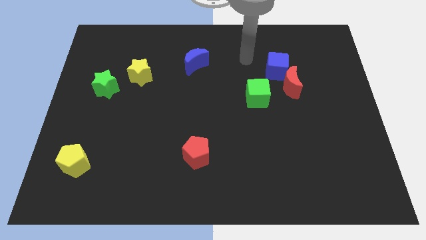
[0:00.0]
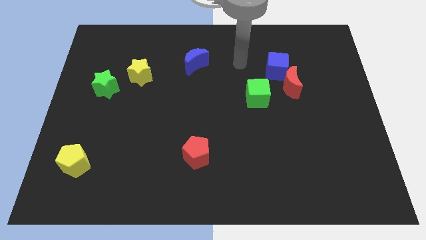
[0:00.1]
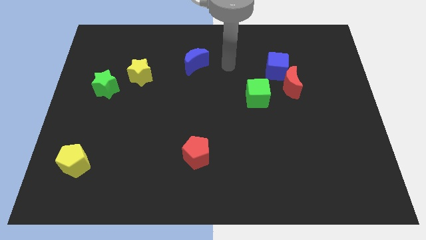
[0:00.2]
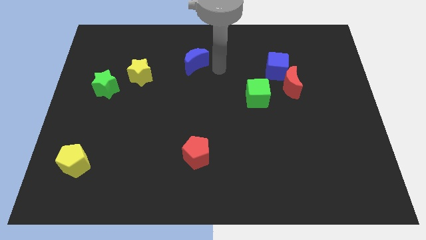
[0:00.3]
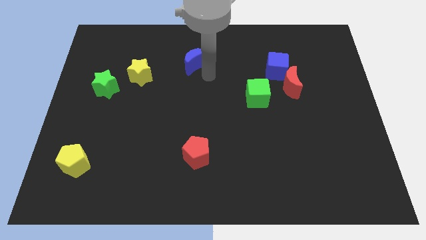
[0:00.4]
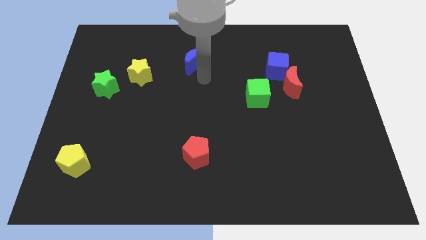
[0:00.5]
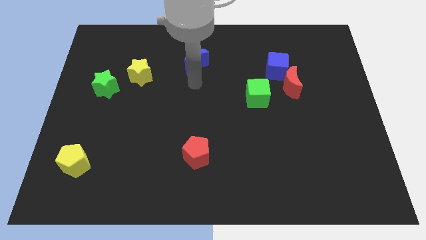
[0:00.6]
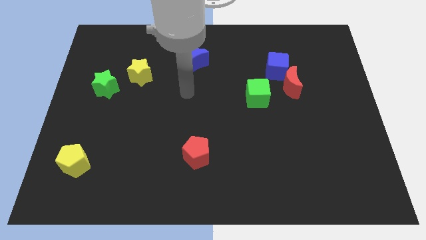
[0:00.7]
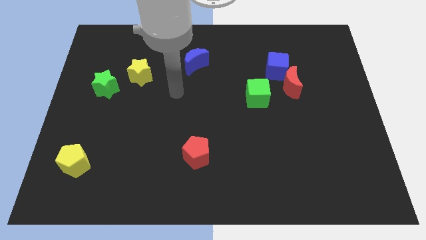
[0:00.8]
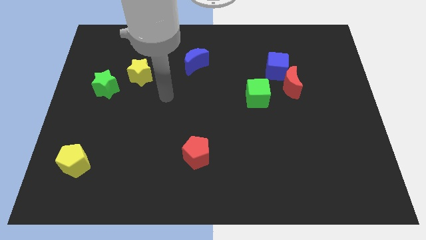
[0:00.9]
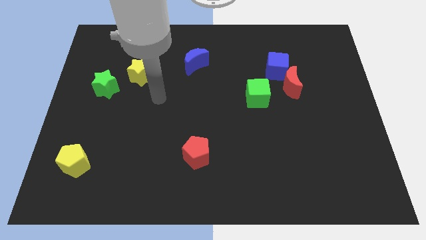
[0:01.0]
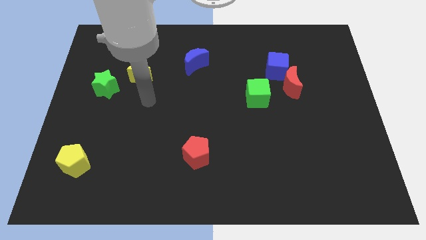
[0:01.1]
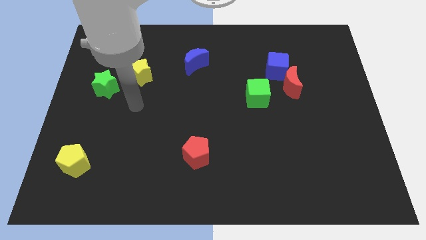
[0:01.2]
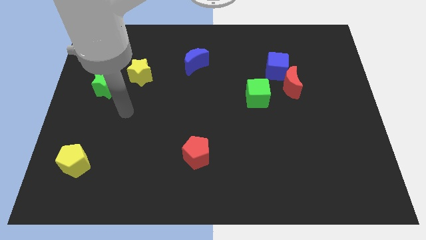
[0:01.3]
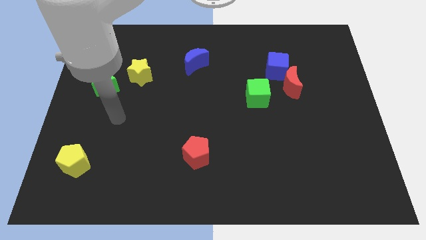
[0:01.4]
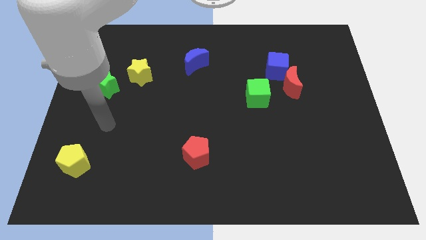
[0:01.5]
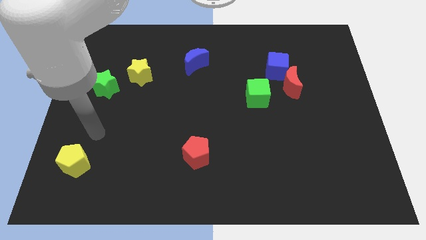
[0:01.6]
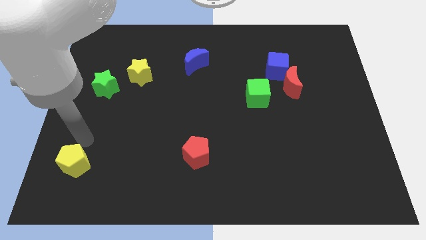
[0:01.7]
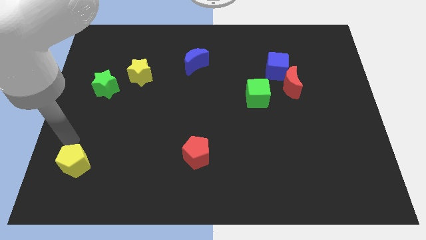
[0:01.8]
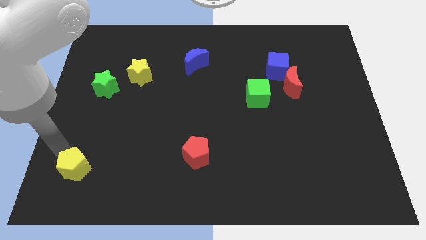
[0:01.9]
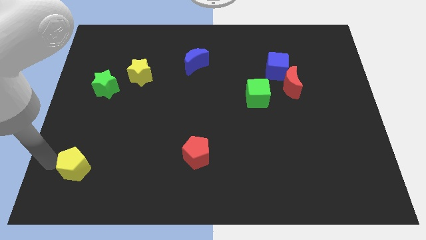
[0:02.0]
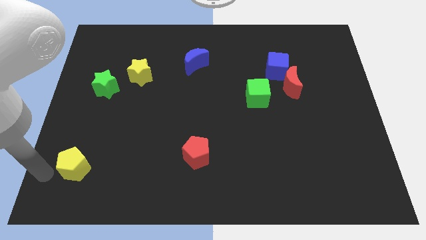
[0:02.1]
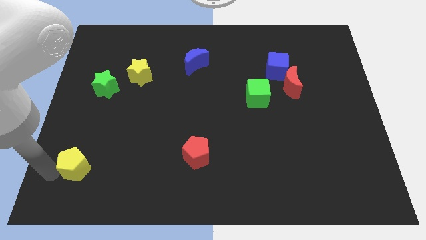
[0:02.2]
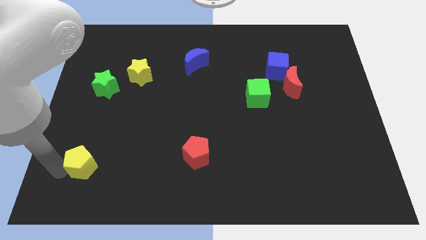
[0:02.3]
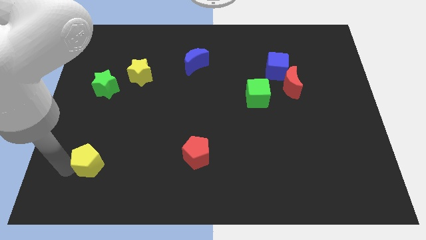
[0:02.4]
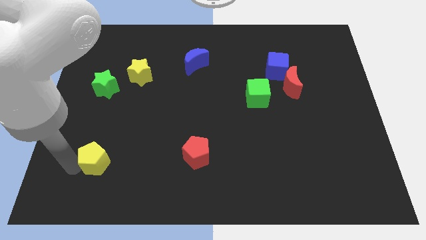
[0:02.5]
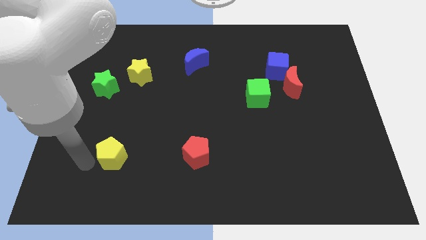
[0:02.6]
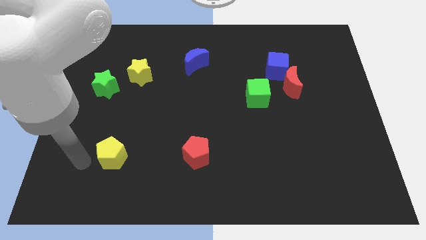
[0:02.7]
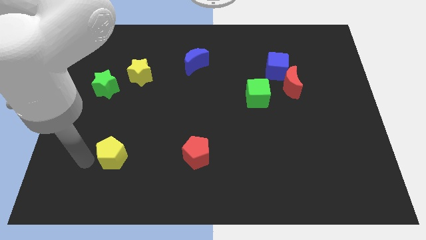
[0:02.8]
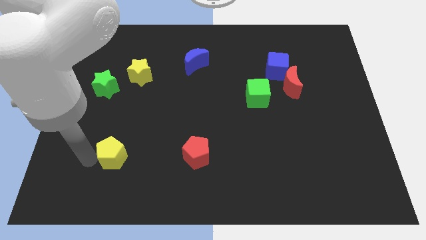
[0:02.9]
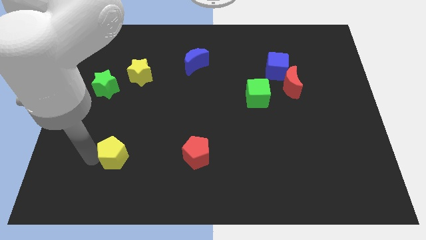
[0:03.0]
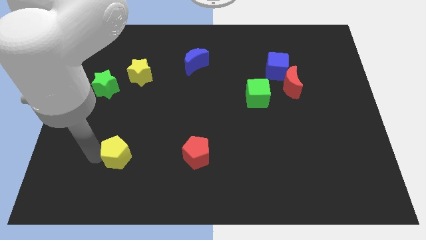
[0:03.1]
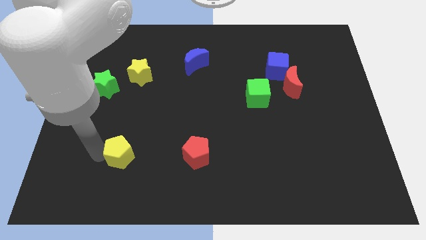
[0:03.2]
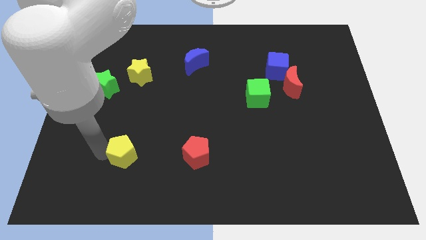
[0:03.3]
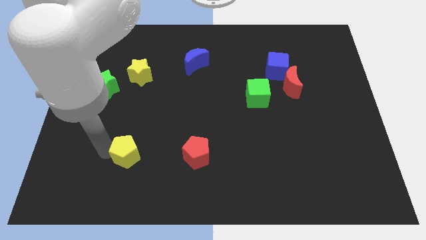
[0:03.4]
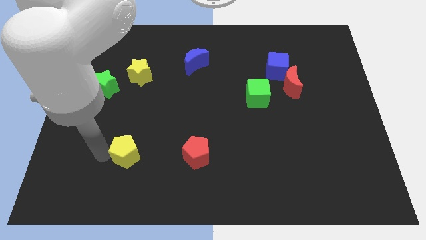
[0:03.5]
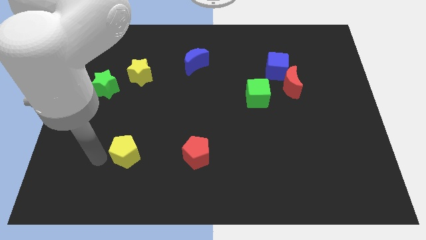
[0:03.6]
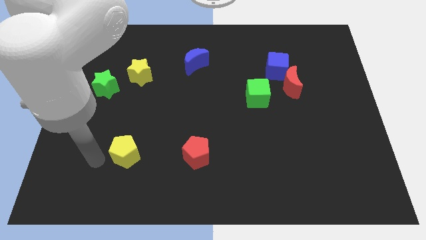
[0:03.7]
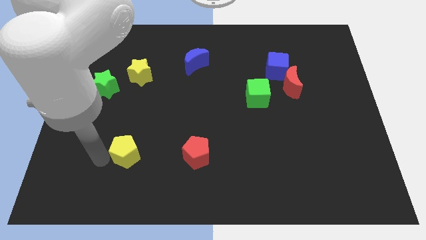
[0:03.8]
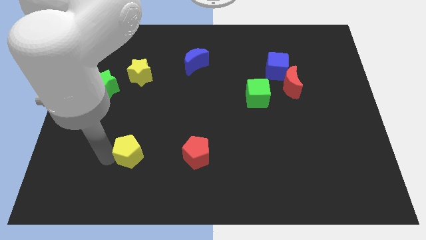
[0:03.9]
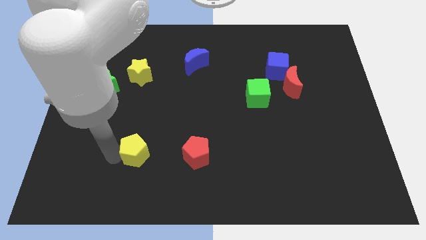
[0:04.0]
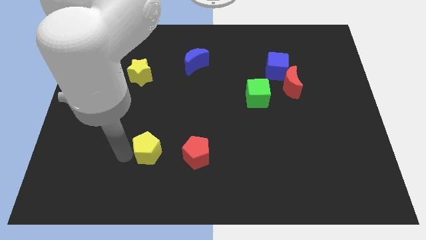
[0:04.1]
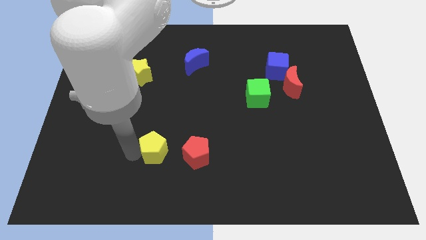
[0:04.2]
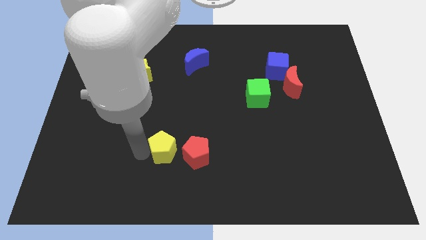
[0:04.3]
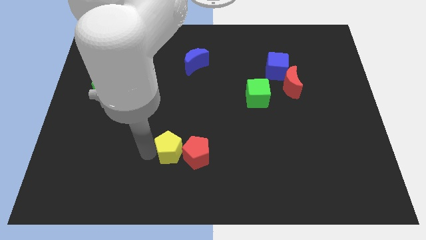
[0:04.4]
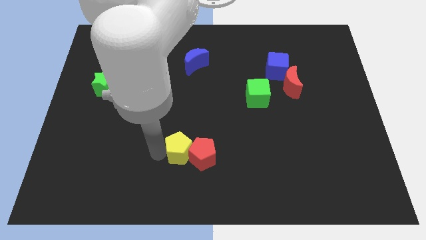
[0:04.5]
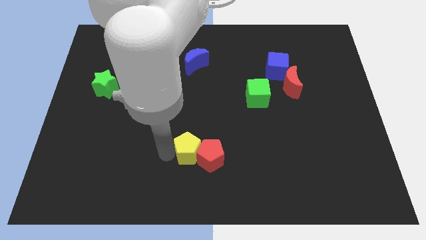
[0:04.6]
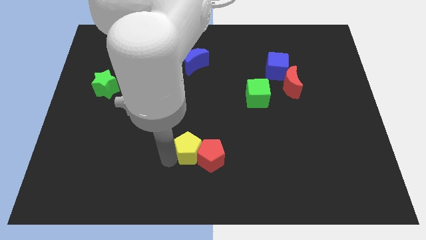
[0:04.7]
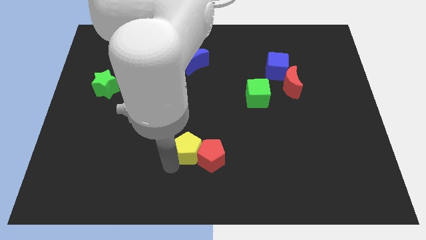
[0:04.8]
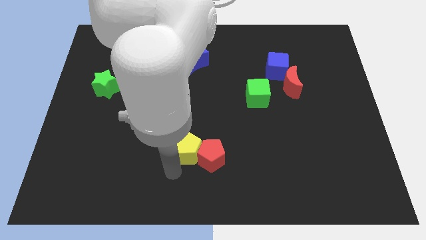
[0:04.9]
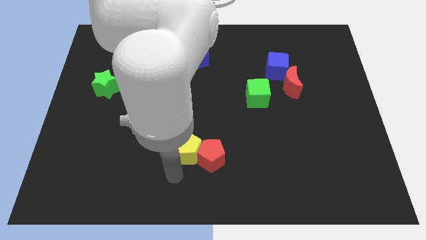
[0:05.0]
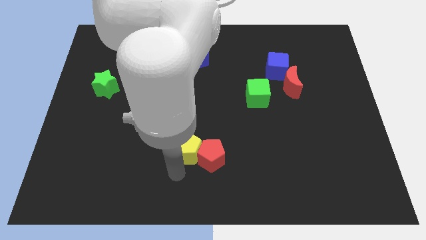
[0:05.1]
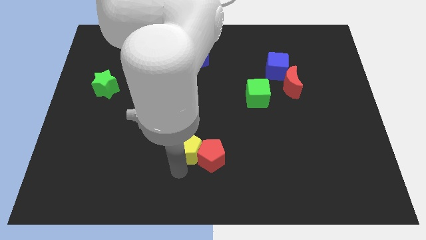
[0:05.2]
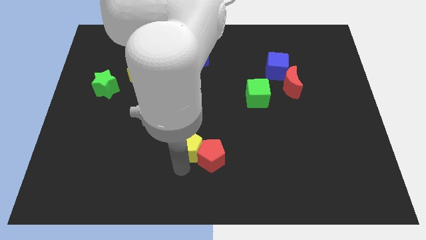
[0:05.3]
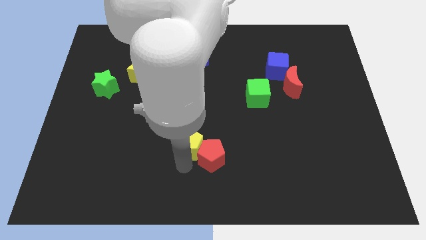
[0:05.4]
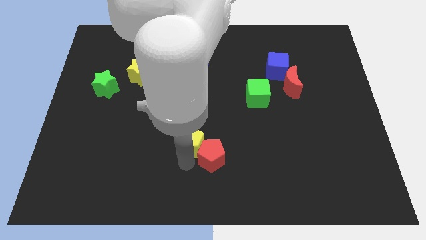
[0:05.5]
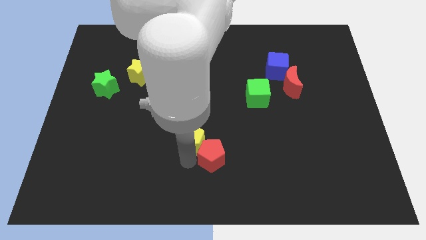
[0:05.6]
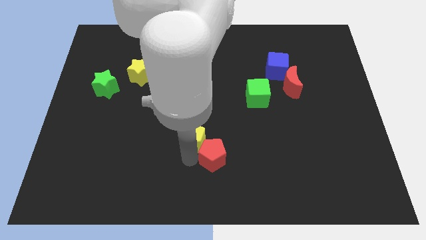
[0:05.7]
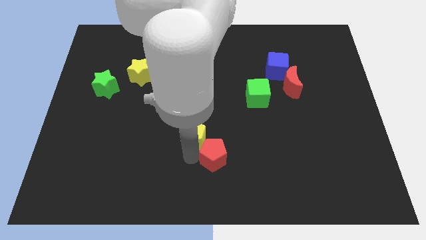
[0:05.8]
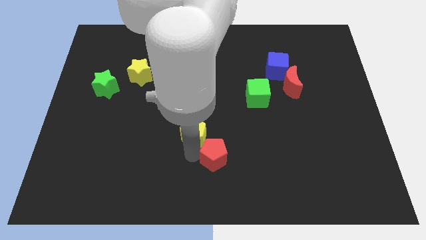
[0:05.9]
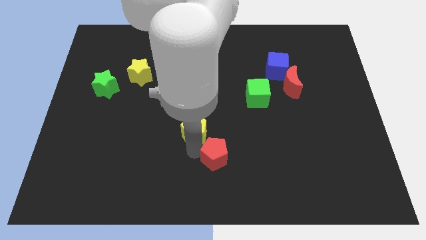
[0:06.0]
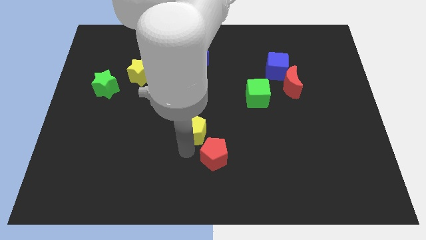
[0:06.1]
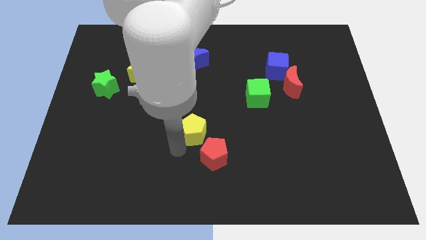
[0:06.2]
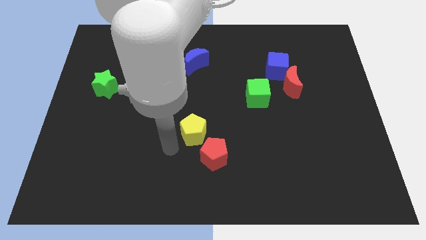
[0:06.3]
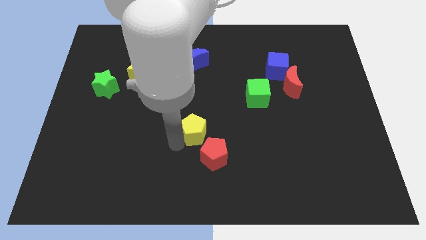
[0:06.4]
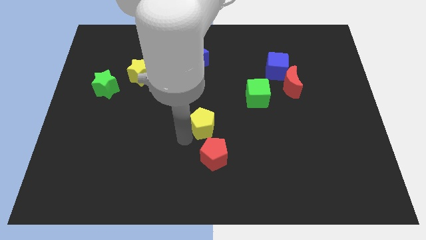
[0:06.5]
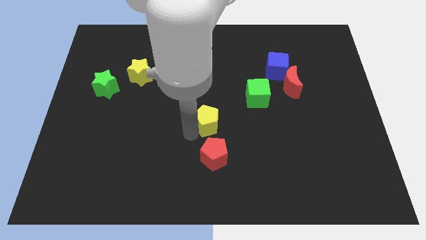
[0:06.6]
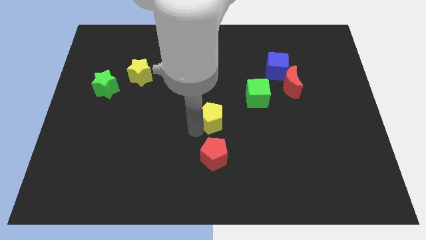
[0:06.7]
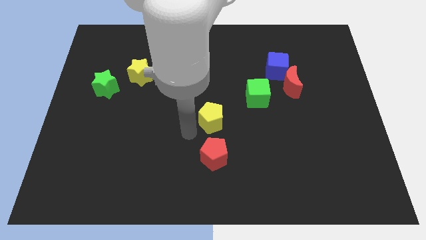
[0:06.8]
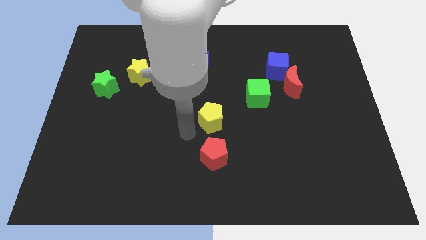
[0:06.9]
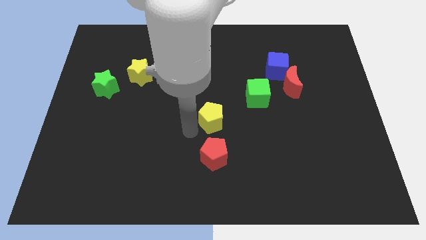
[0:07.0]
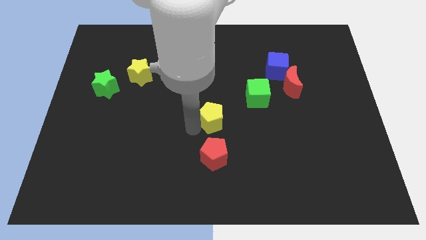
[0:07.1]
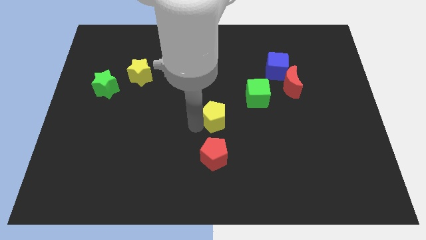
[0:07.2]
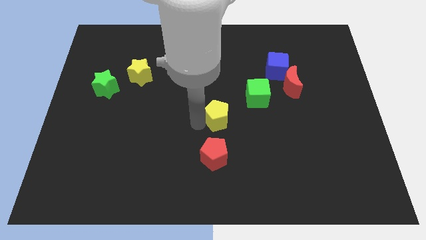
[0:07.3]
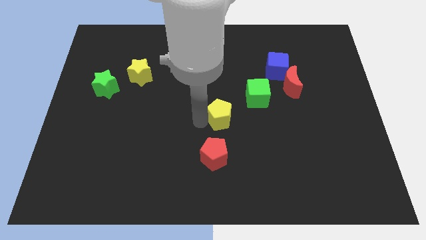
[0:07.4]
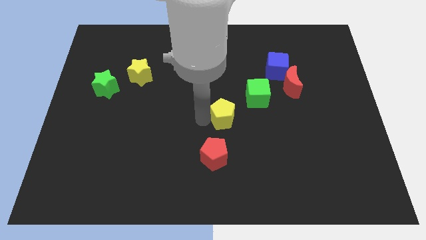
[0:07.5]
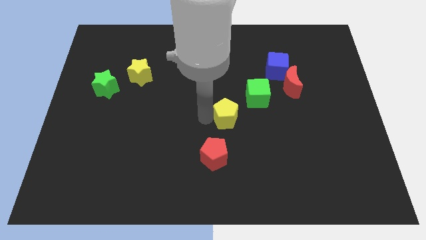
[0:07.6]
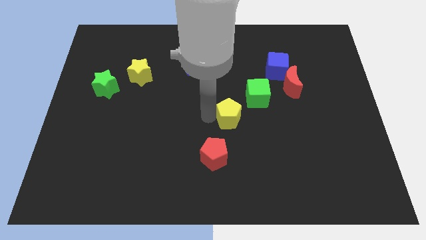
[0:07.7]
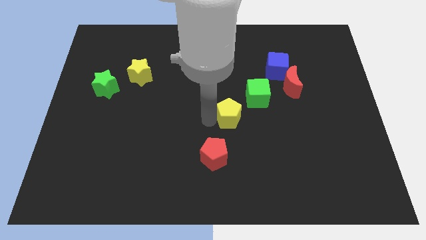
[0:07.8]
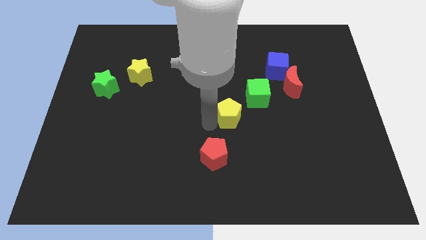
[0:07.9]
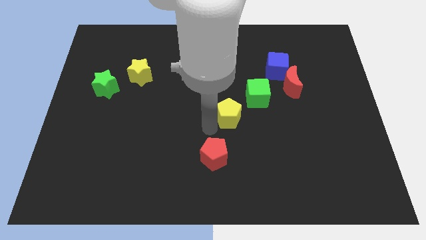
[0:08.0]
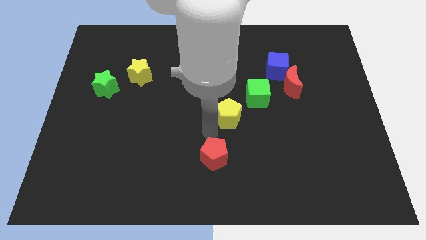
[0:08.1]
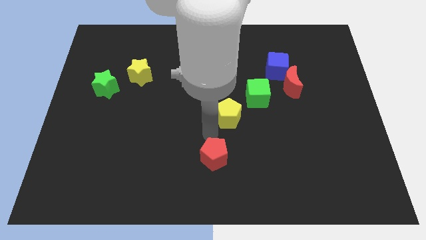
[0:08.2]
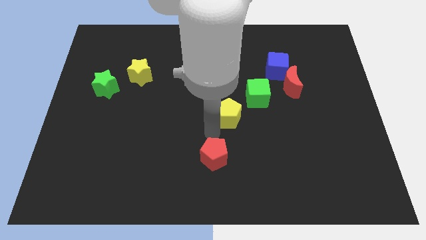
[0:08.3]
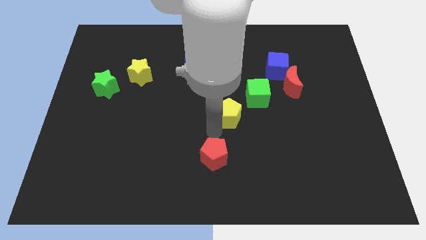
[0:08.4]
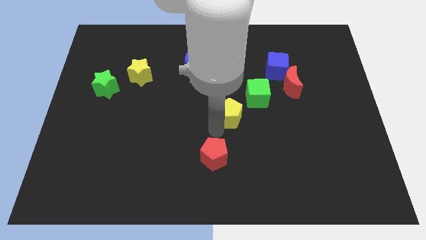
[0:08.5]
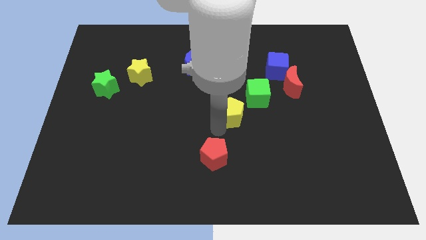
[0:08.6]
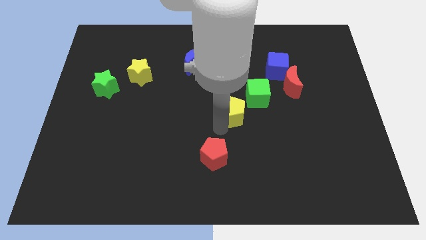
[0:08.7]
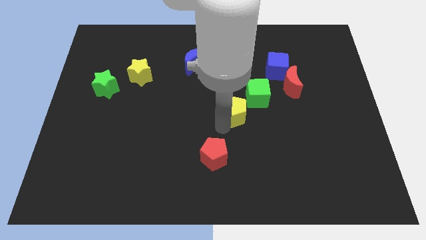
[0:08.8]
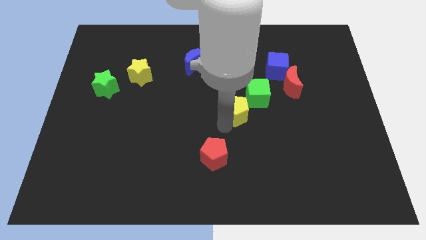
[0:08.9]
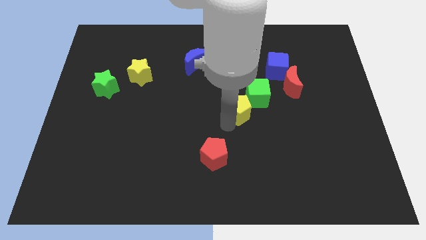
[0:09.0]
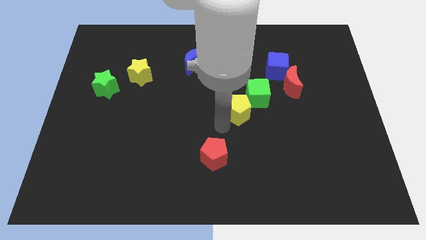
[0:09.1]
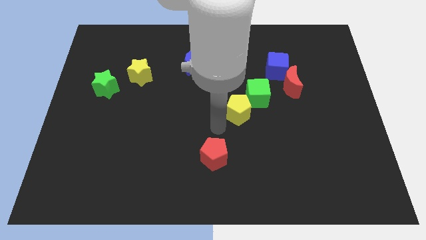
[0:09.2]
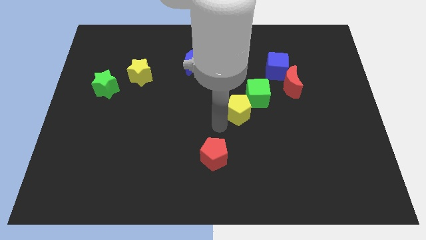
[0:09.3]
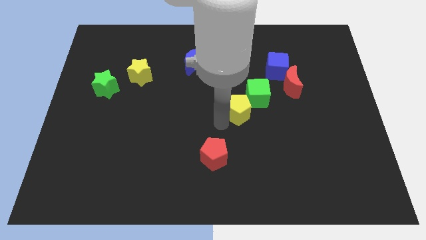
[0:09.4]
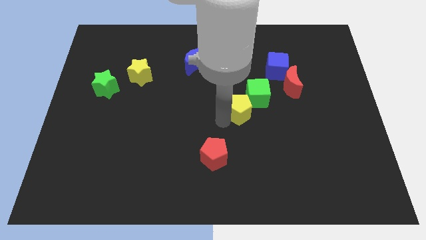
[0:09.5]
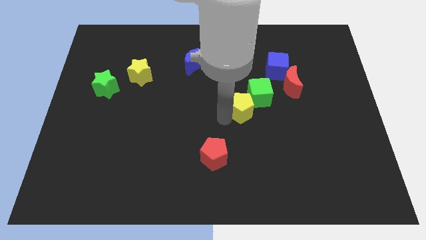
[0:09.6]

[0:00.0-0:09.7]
slide the yellow pentagon towards the green cube
